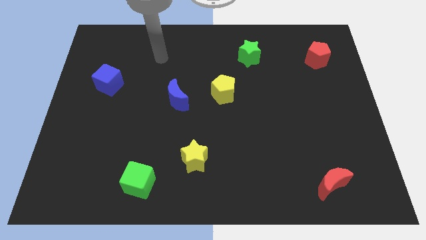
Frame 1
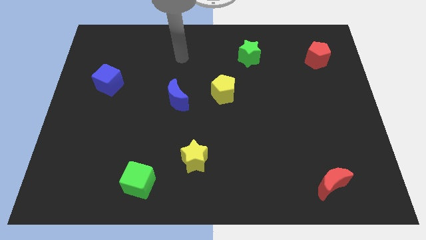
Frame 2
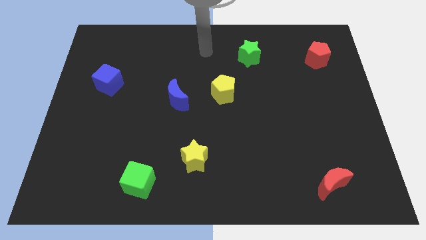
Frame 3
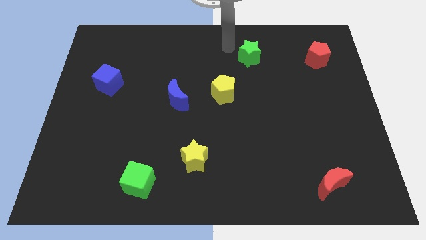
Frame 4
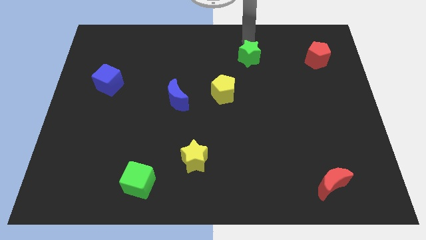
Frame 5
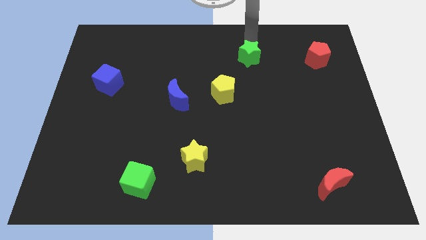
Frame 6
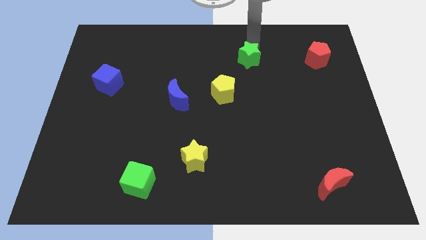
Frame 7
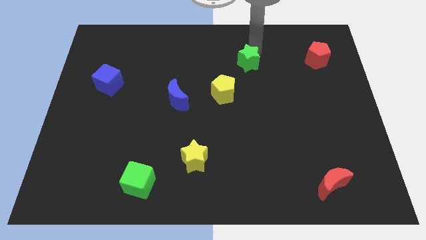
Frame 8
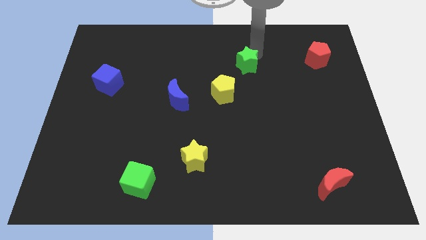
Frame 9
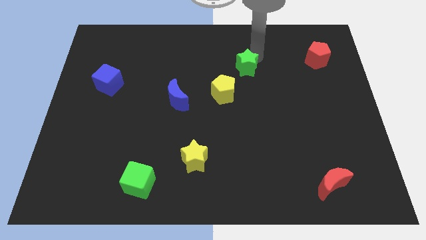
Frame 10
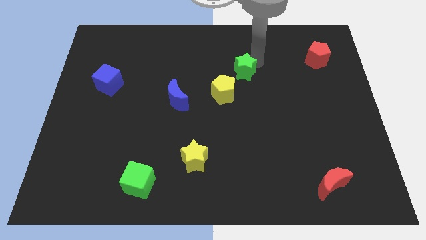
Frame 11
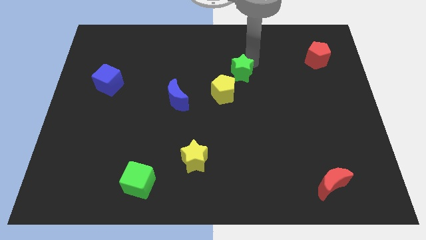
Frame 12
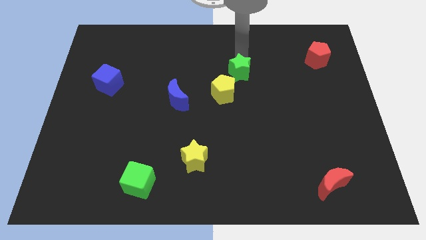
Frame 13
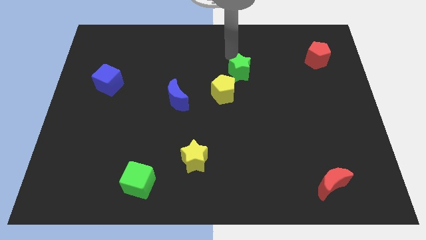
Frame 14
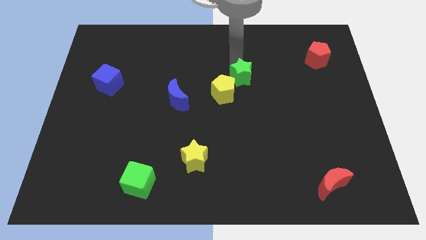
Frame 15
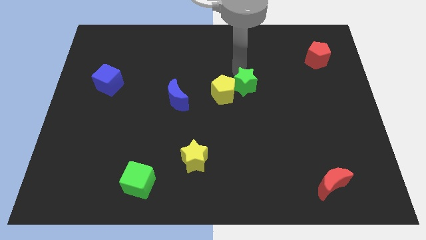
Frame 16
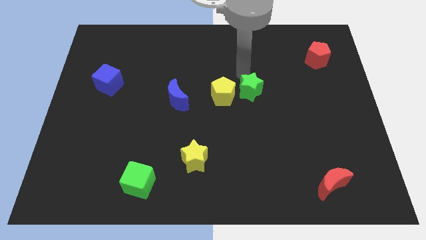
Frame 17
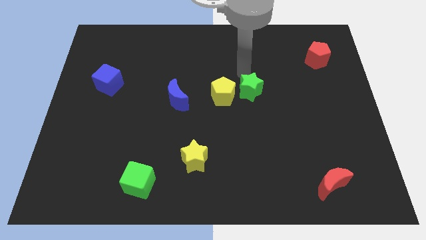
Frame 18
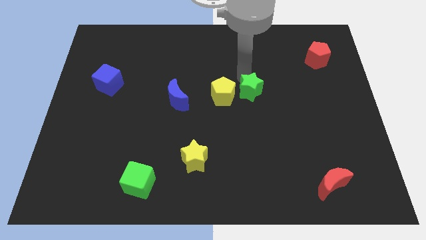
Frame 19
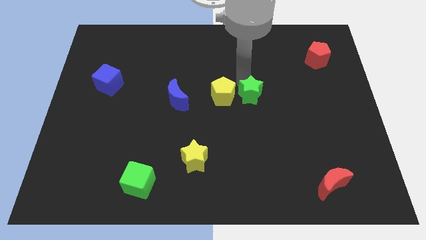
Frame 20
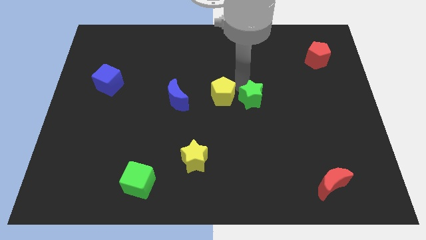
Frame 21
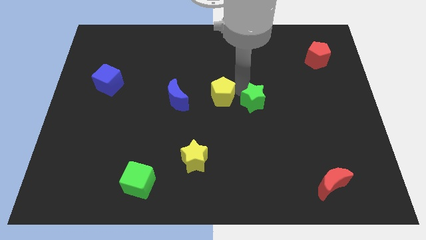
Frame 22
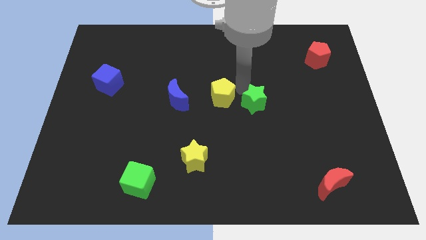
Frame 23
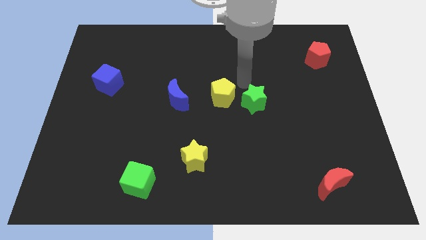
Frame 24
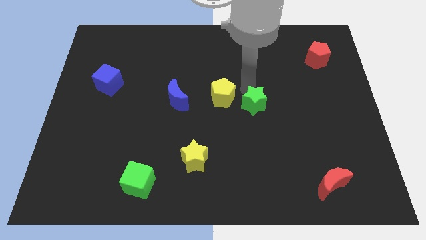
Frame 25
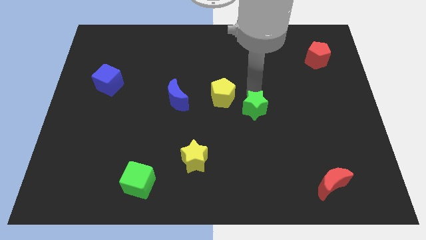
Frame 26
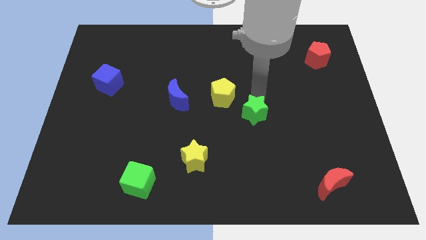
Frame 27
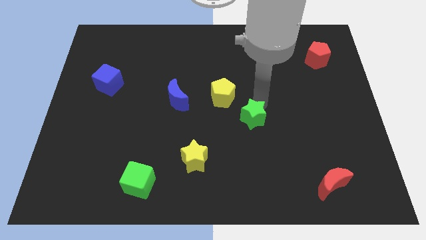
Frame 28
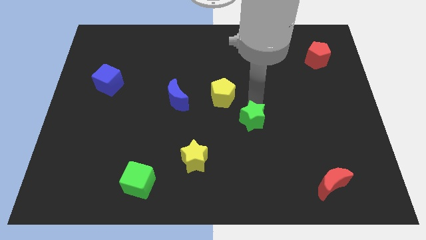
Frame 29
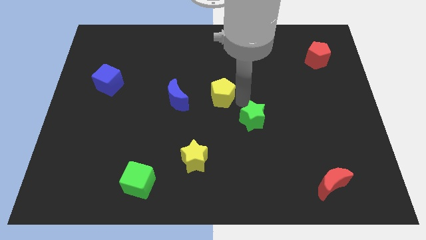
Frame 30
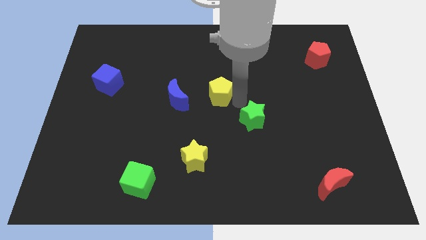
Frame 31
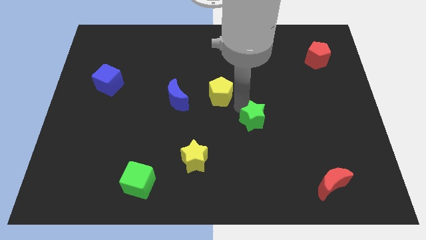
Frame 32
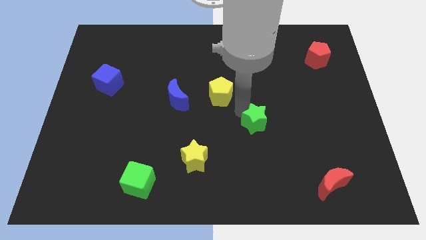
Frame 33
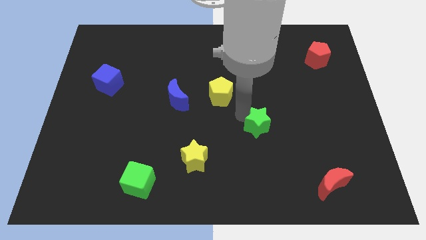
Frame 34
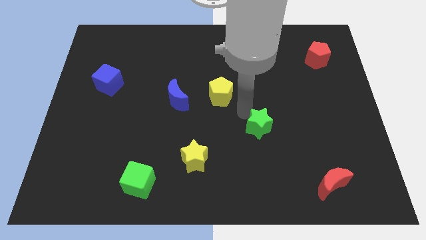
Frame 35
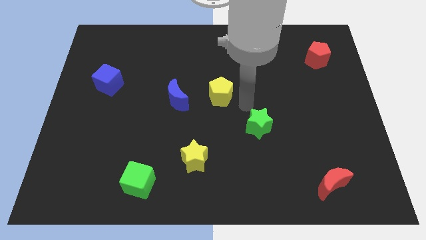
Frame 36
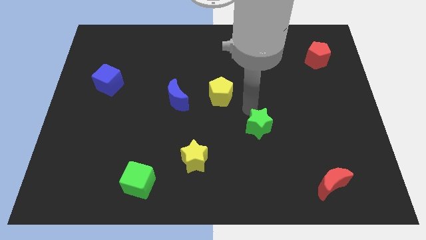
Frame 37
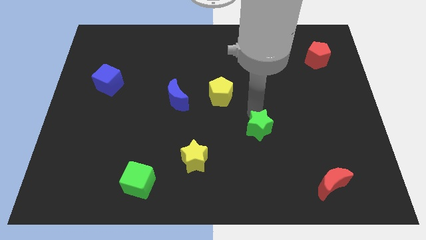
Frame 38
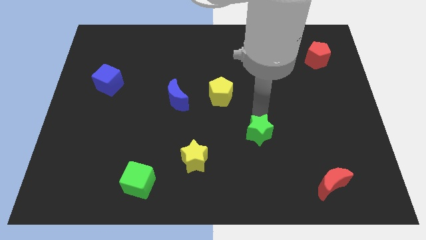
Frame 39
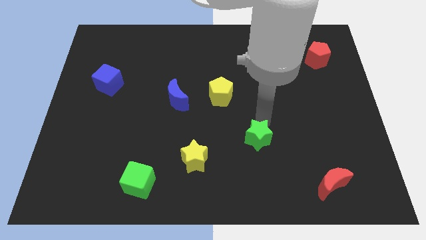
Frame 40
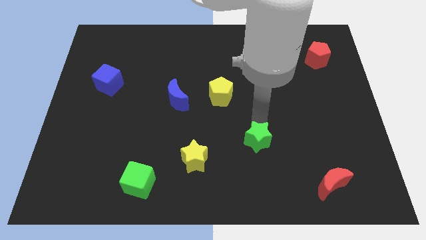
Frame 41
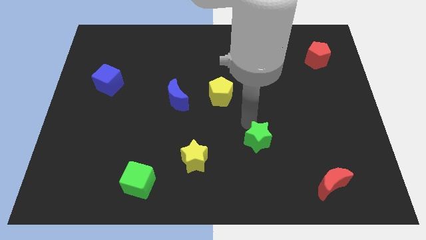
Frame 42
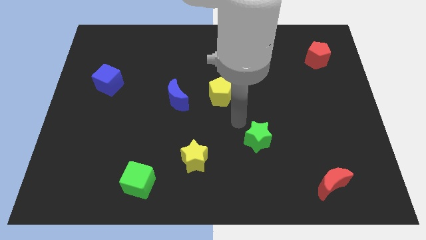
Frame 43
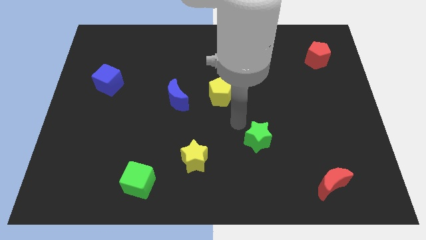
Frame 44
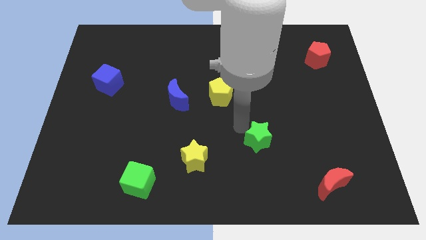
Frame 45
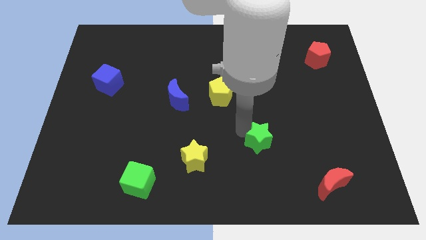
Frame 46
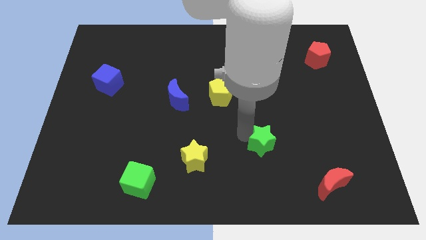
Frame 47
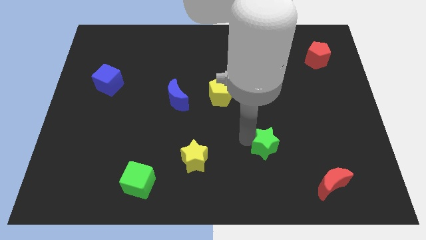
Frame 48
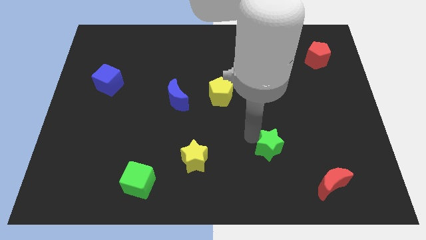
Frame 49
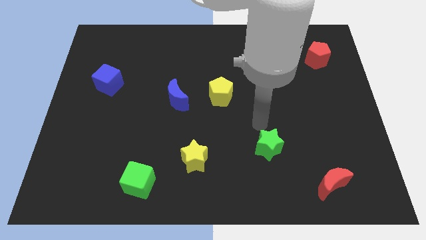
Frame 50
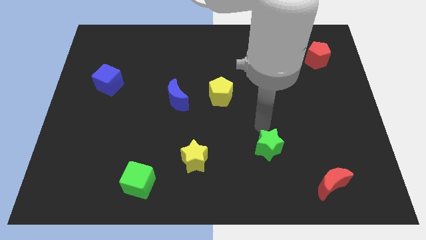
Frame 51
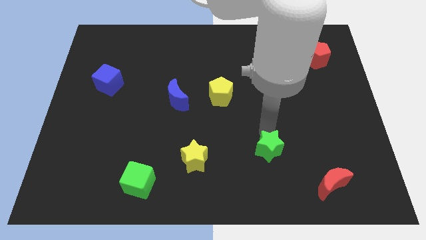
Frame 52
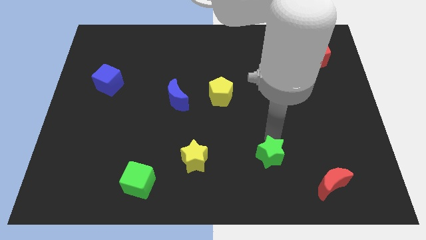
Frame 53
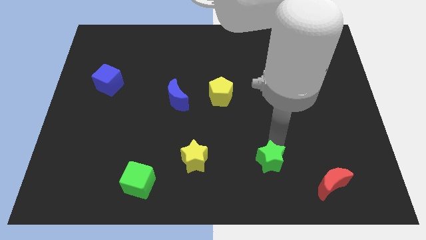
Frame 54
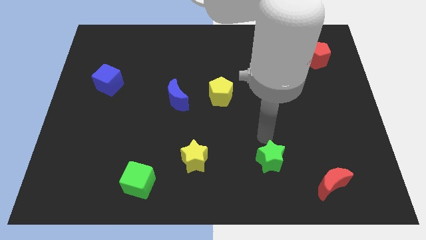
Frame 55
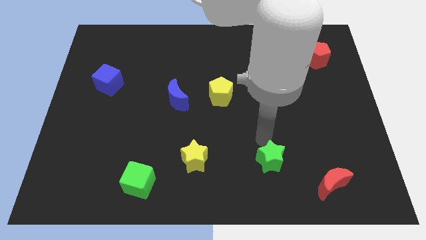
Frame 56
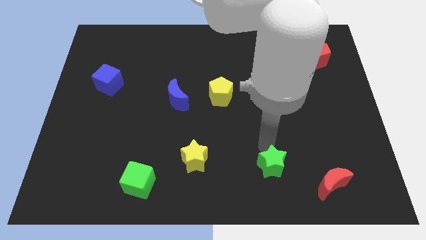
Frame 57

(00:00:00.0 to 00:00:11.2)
push the green star left of the red moon

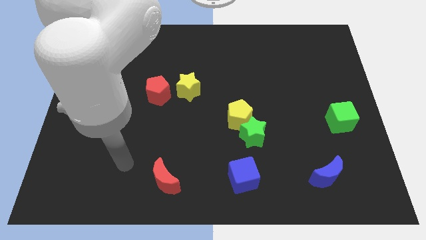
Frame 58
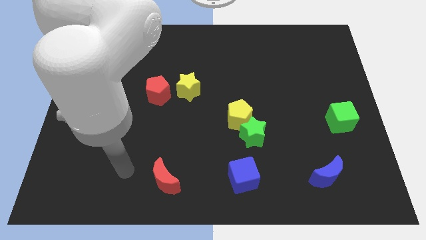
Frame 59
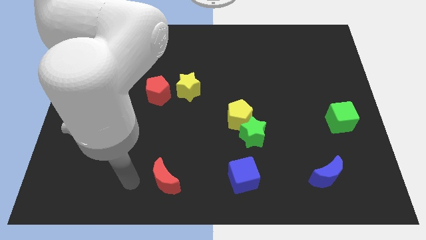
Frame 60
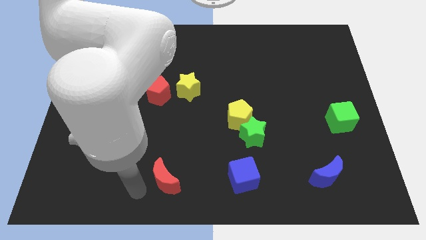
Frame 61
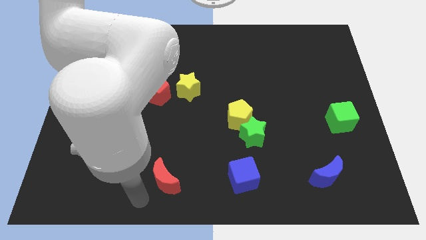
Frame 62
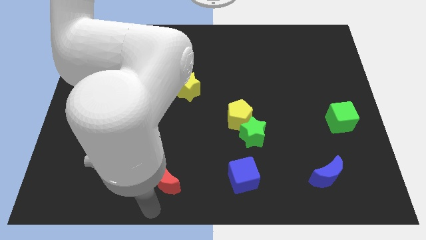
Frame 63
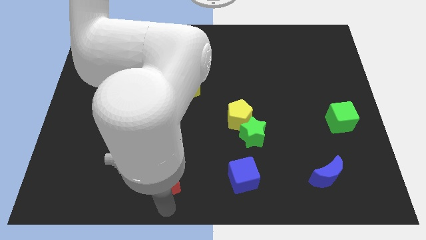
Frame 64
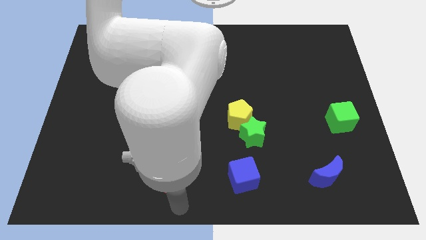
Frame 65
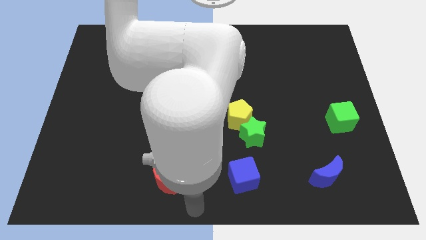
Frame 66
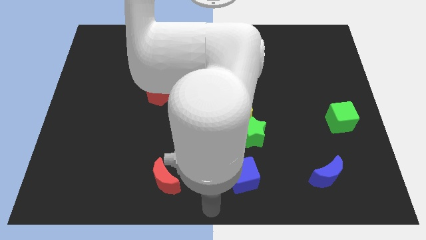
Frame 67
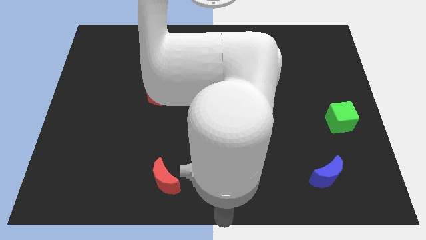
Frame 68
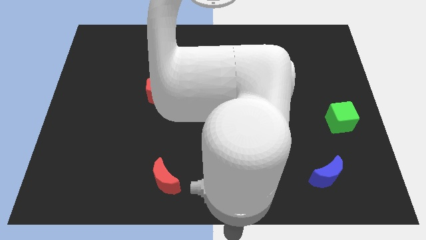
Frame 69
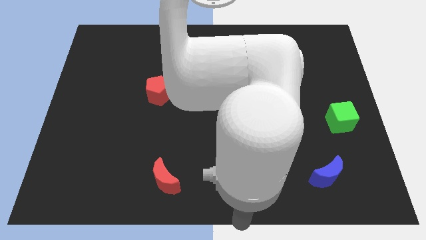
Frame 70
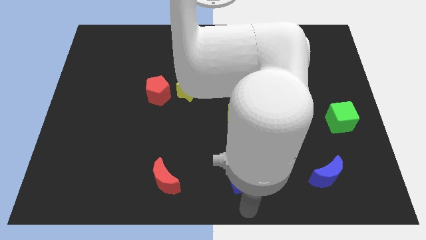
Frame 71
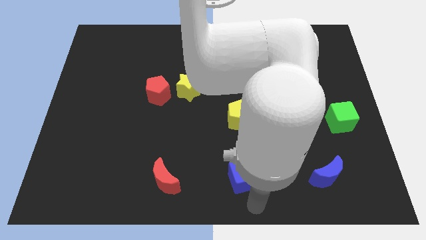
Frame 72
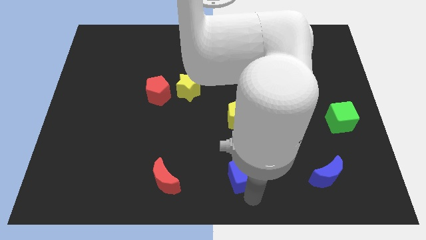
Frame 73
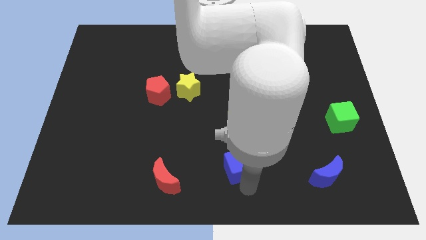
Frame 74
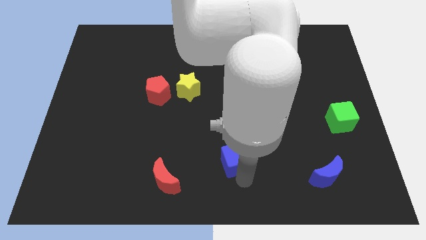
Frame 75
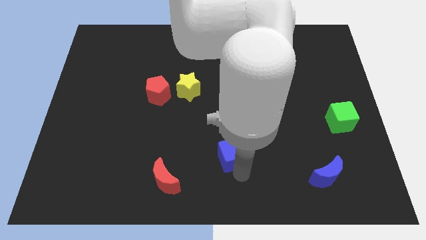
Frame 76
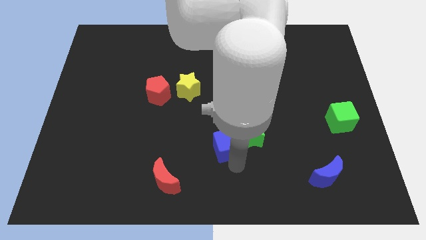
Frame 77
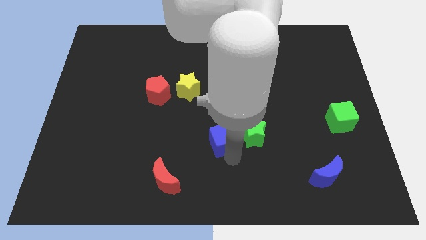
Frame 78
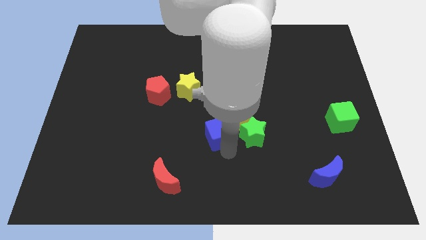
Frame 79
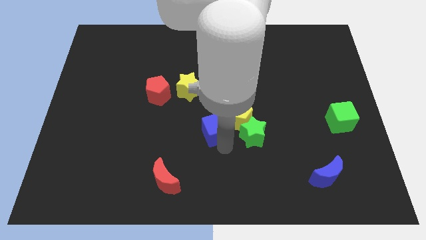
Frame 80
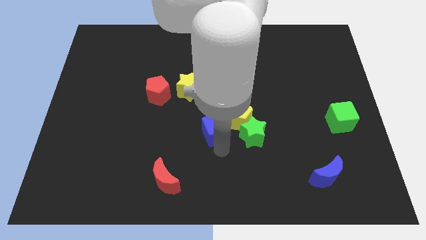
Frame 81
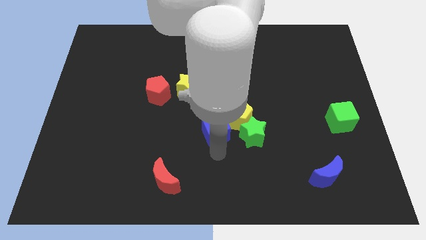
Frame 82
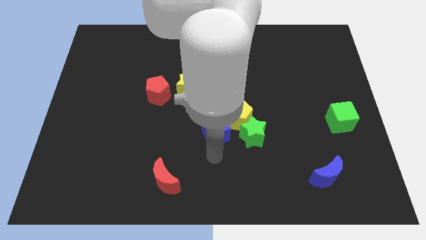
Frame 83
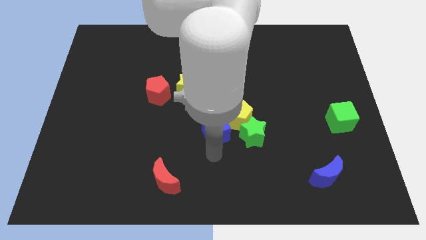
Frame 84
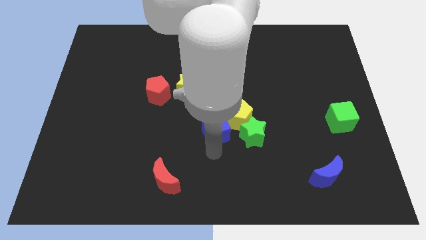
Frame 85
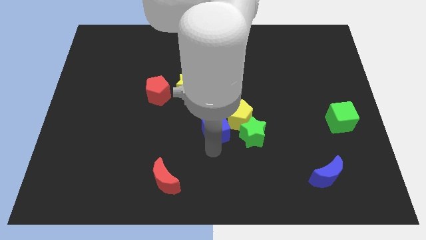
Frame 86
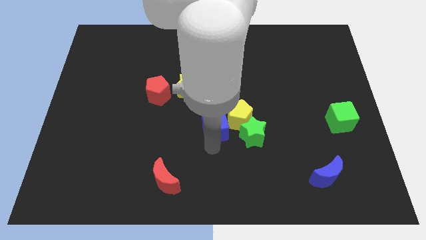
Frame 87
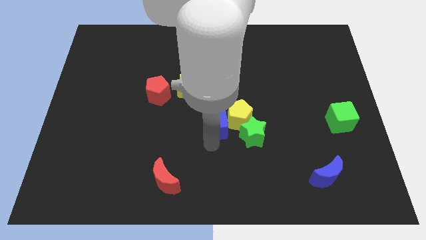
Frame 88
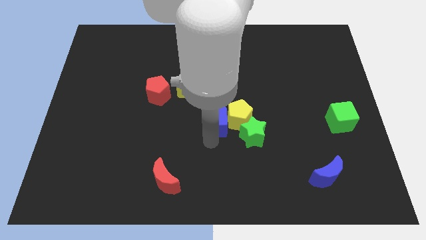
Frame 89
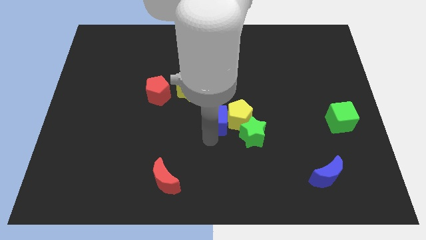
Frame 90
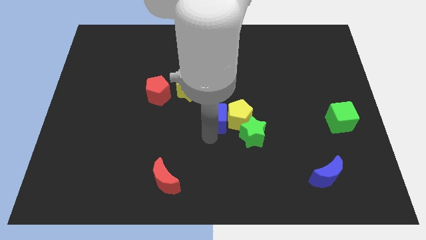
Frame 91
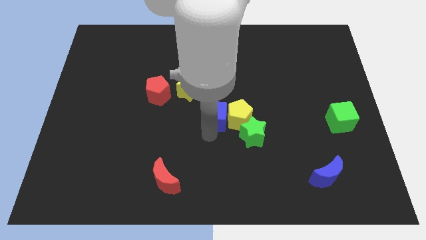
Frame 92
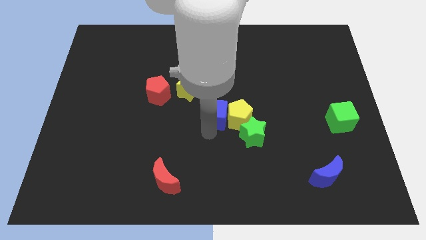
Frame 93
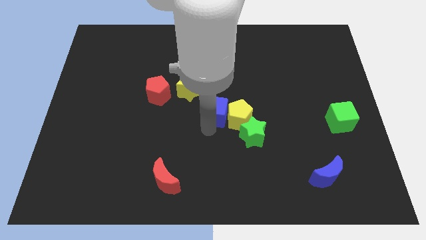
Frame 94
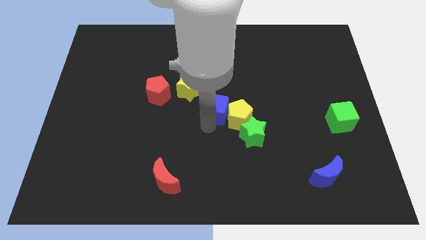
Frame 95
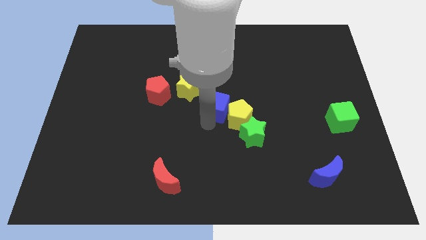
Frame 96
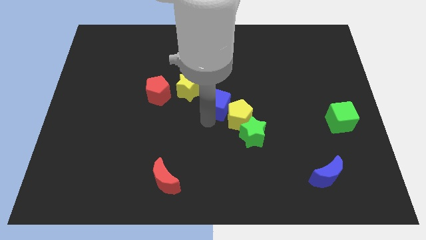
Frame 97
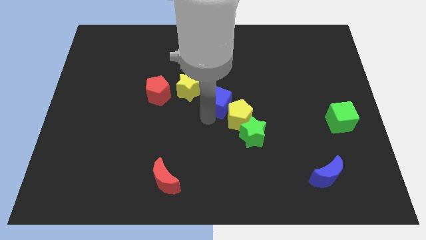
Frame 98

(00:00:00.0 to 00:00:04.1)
slide the blue cube to the top side of the yellow pentagon
